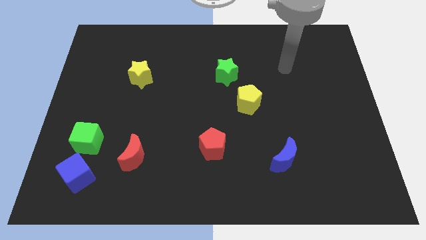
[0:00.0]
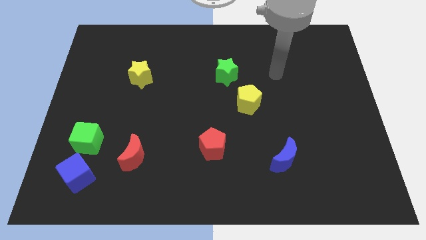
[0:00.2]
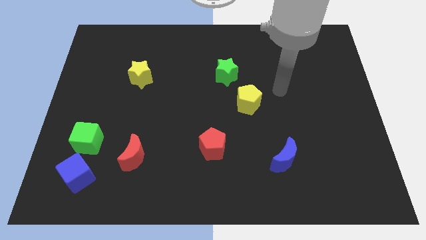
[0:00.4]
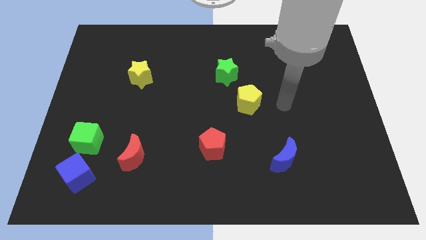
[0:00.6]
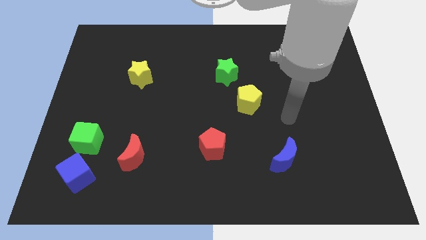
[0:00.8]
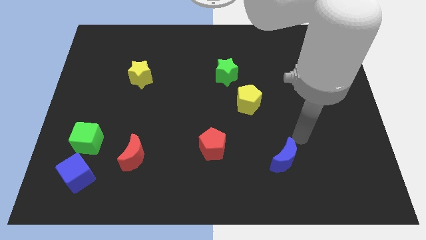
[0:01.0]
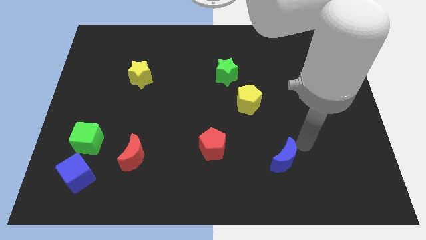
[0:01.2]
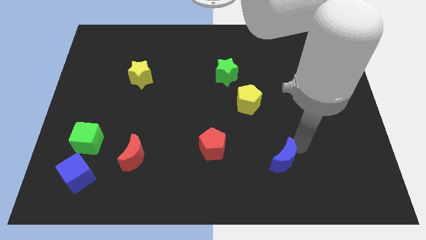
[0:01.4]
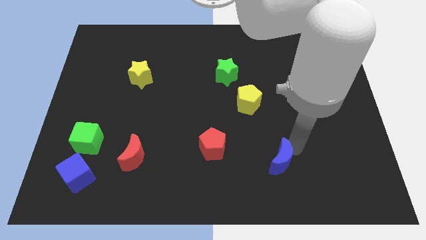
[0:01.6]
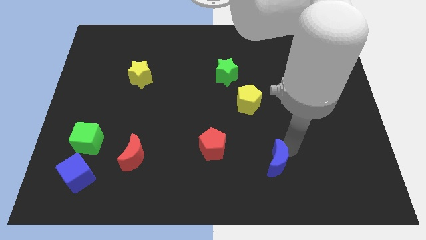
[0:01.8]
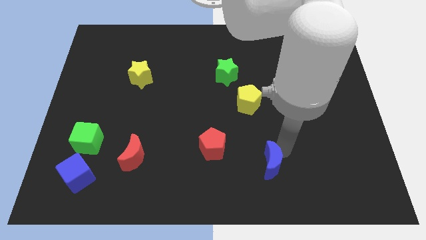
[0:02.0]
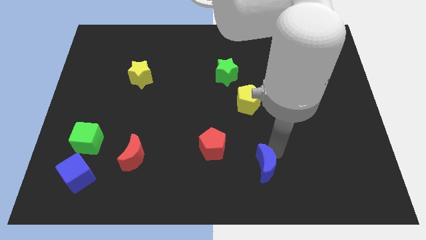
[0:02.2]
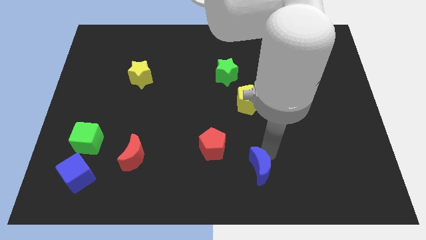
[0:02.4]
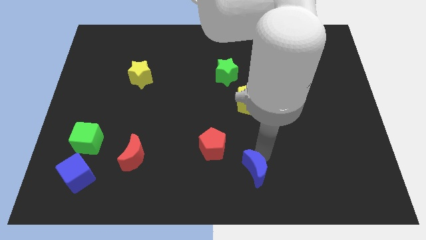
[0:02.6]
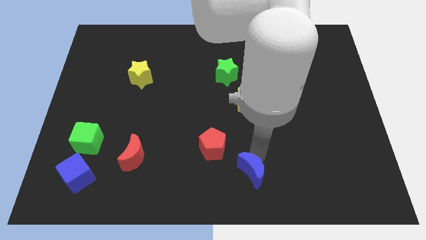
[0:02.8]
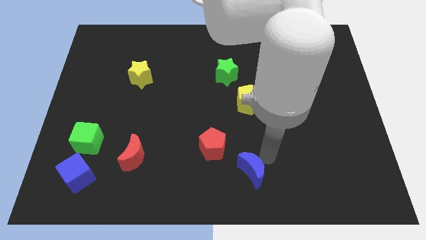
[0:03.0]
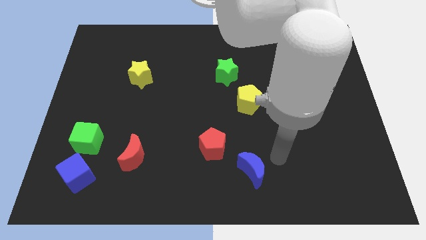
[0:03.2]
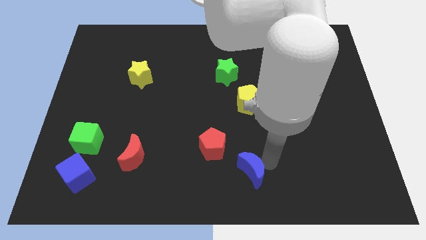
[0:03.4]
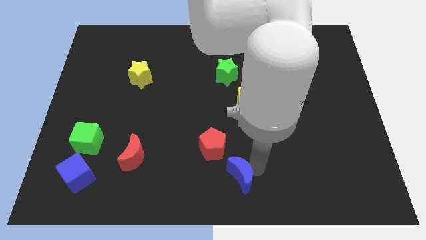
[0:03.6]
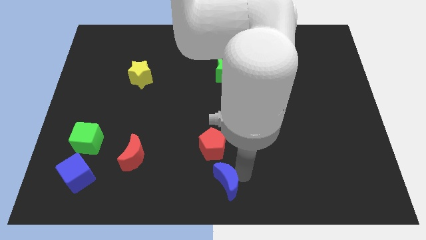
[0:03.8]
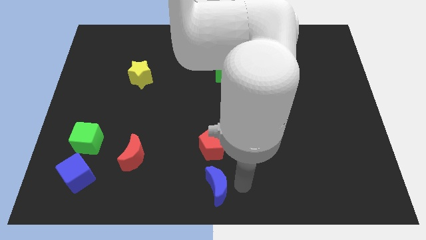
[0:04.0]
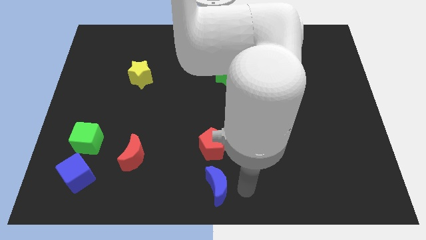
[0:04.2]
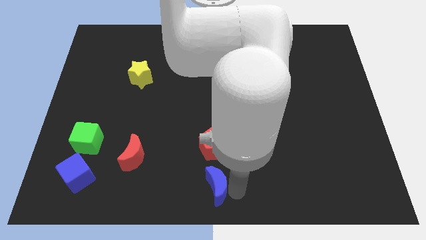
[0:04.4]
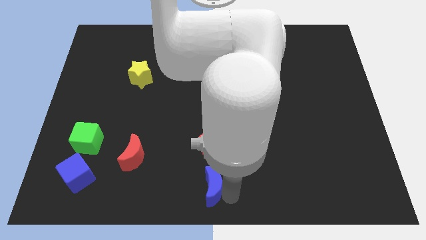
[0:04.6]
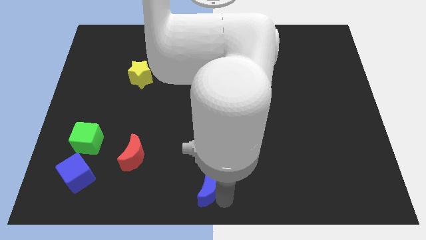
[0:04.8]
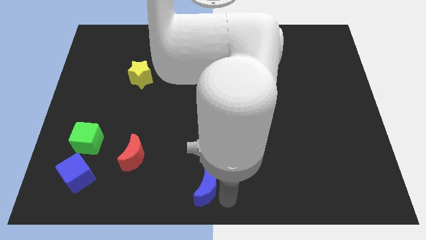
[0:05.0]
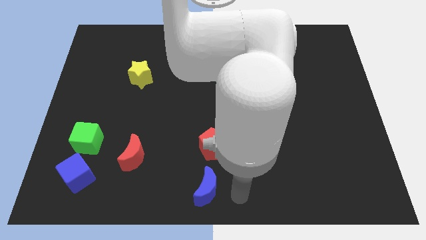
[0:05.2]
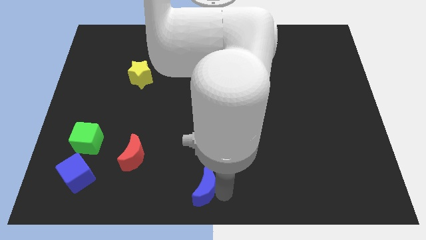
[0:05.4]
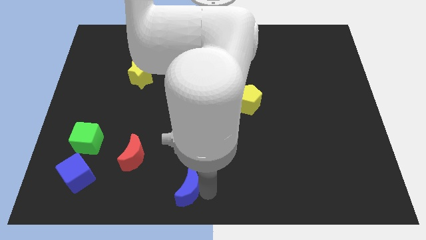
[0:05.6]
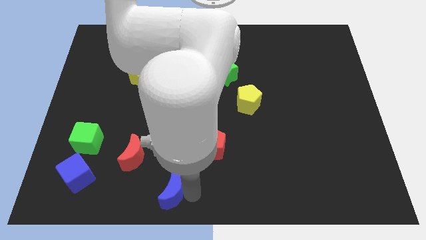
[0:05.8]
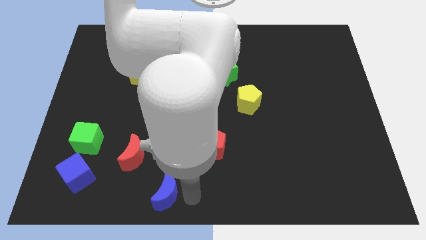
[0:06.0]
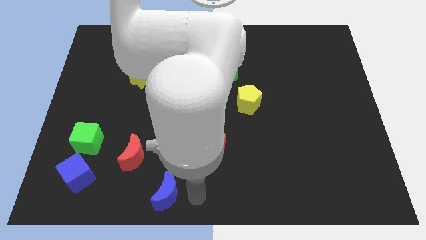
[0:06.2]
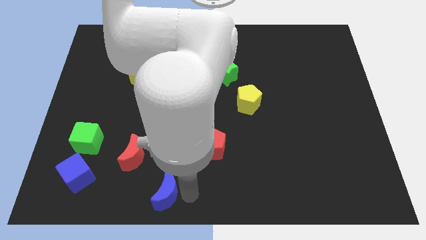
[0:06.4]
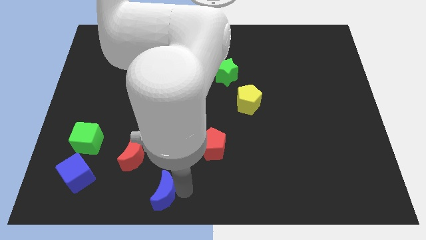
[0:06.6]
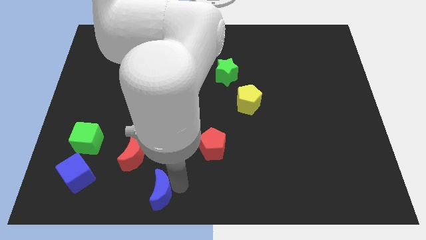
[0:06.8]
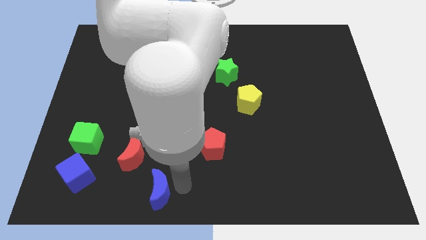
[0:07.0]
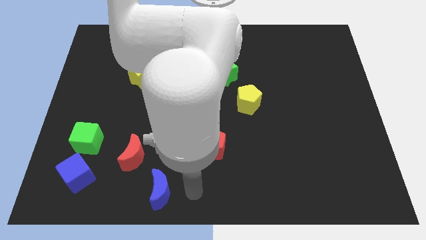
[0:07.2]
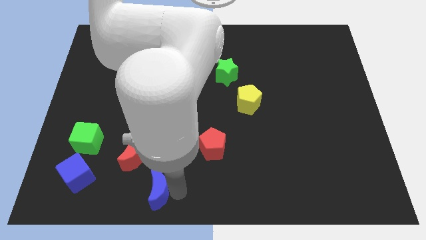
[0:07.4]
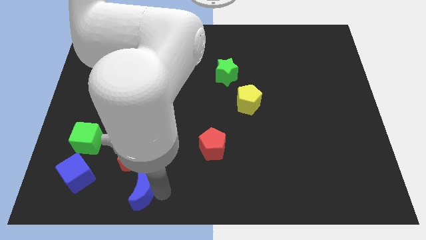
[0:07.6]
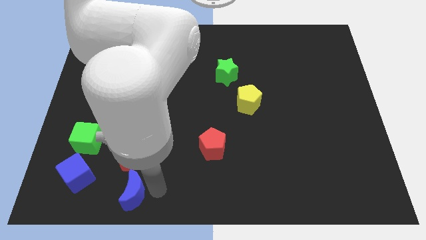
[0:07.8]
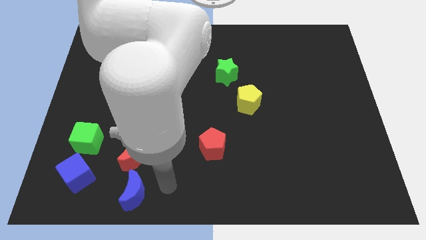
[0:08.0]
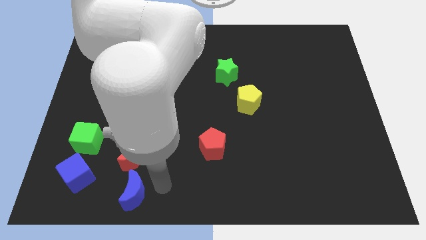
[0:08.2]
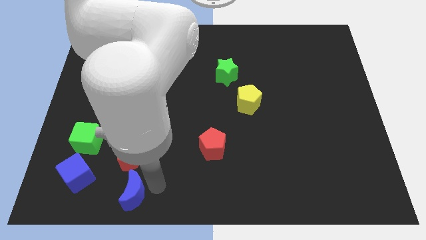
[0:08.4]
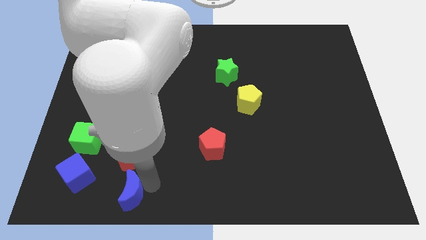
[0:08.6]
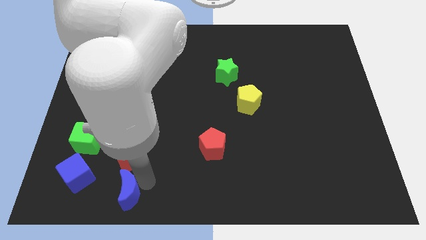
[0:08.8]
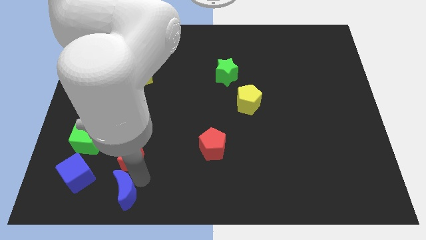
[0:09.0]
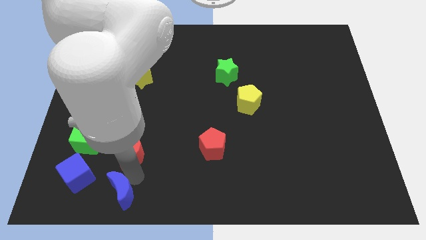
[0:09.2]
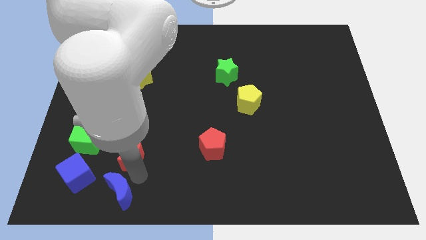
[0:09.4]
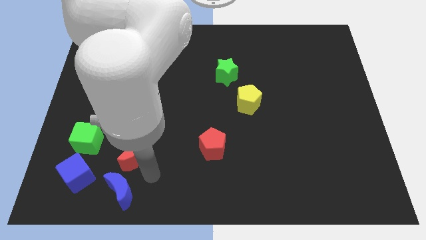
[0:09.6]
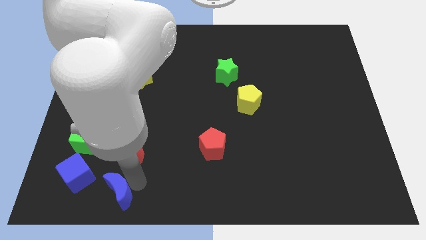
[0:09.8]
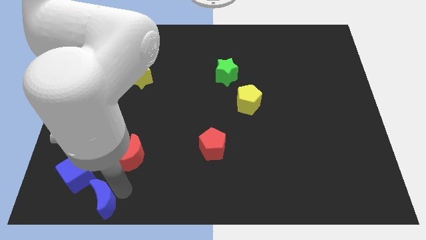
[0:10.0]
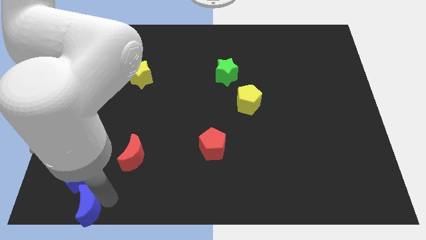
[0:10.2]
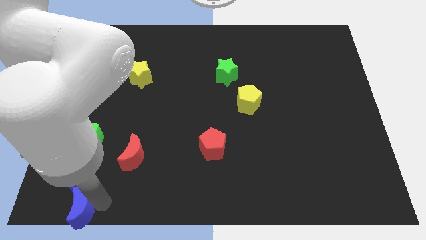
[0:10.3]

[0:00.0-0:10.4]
push the blue moon to the lower left corner
